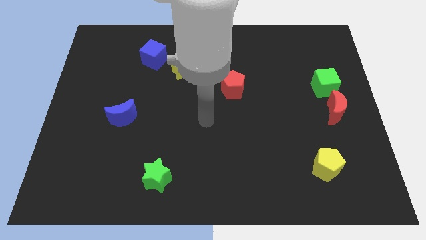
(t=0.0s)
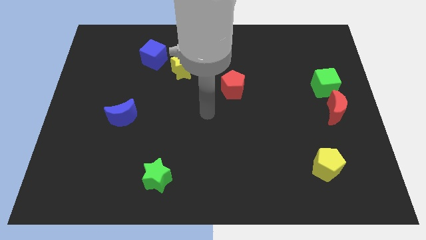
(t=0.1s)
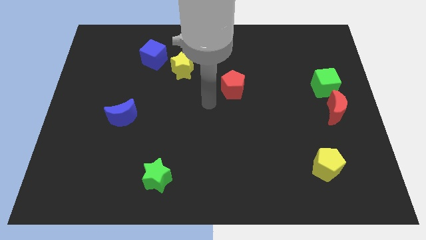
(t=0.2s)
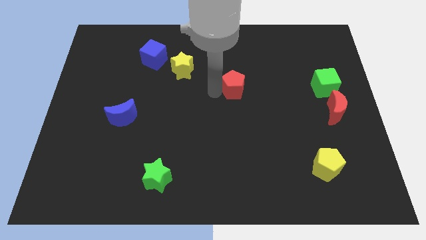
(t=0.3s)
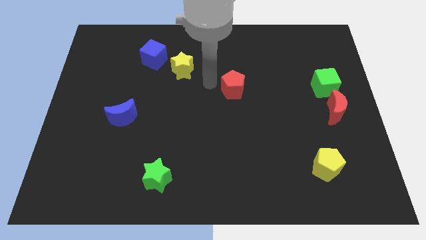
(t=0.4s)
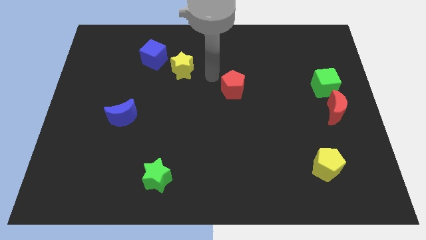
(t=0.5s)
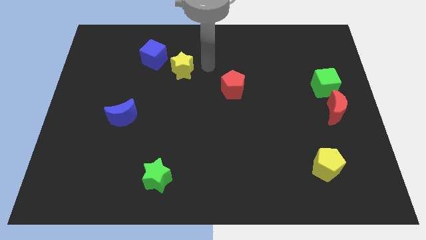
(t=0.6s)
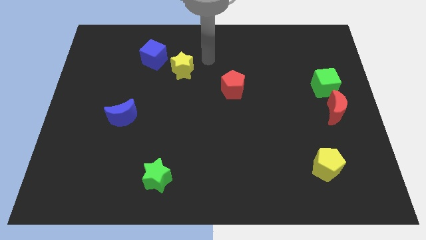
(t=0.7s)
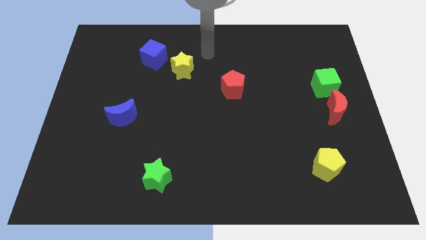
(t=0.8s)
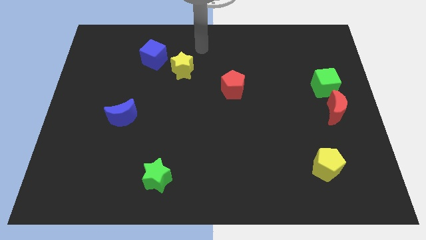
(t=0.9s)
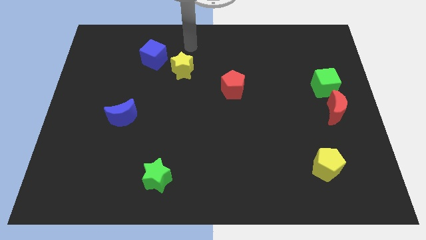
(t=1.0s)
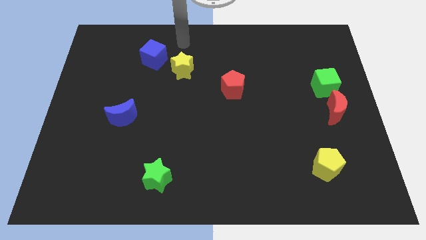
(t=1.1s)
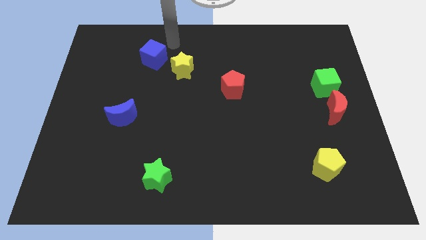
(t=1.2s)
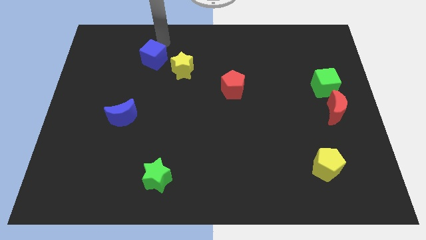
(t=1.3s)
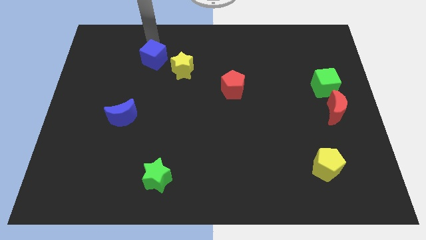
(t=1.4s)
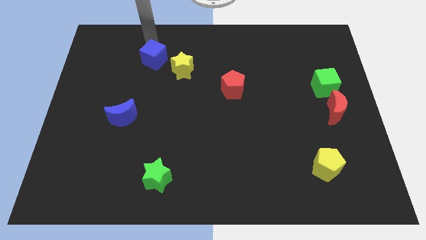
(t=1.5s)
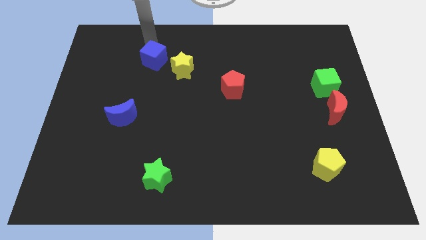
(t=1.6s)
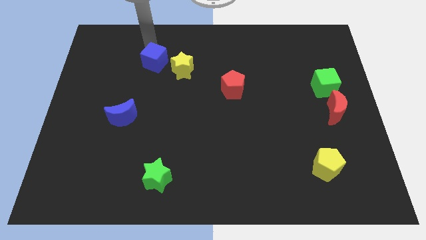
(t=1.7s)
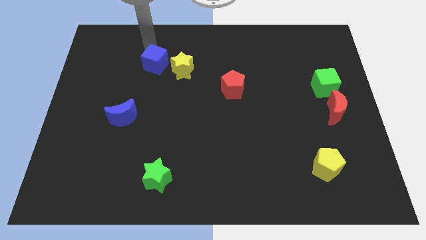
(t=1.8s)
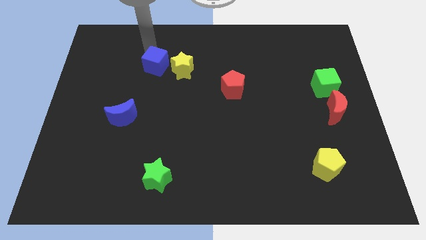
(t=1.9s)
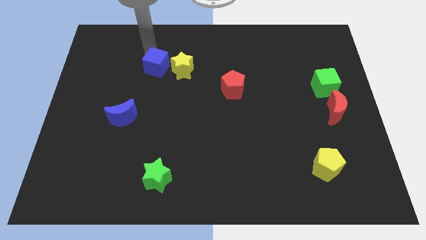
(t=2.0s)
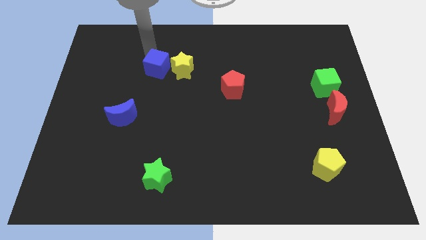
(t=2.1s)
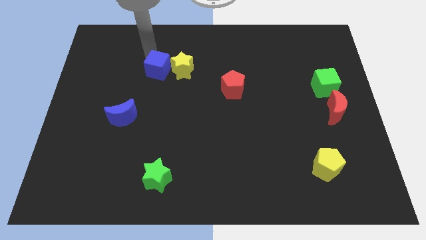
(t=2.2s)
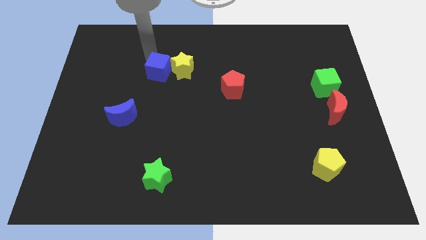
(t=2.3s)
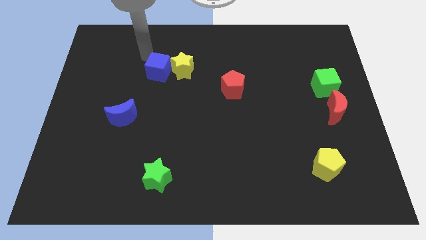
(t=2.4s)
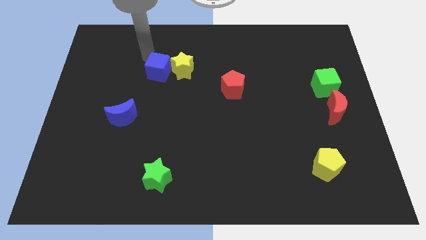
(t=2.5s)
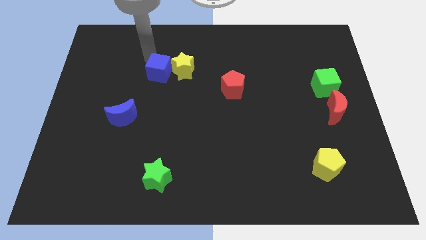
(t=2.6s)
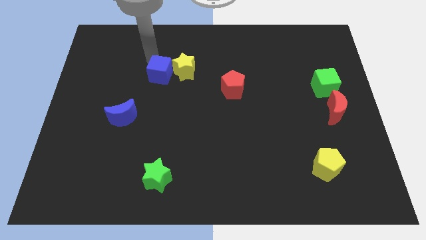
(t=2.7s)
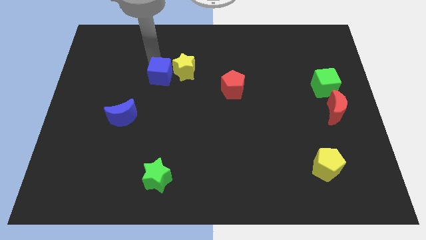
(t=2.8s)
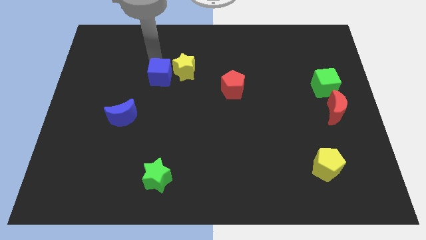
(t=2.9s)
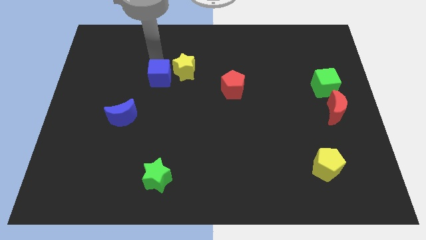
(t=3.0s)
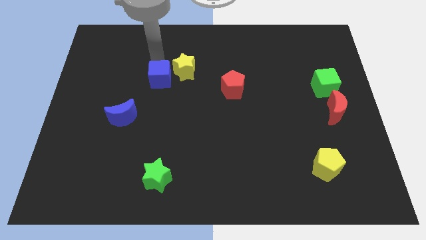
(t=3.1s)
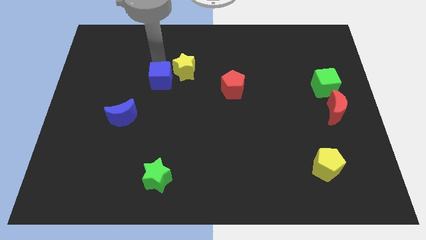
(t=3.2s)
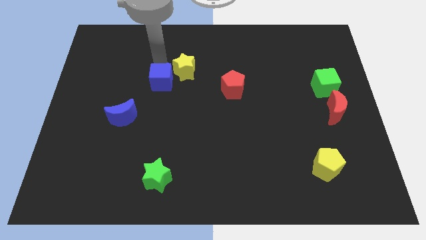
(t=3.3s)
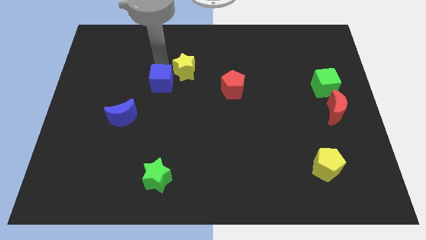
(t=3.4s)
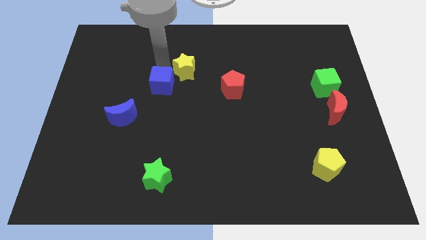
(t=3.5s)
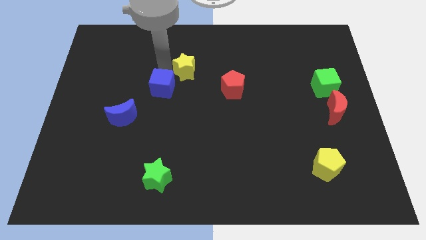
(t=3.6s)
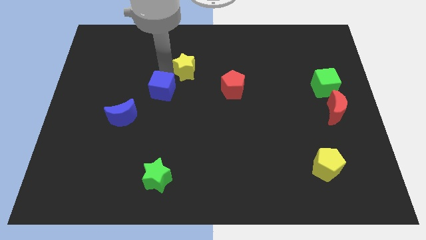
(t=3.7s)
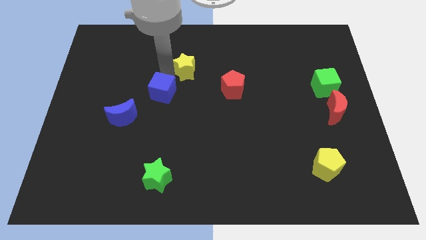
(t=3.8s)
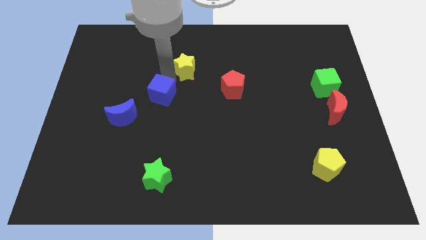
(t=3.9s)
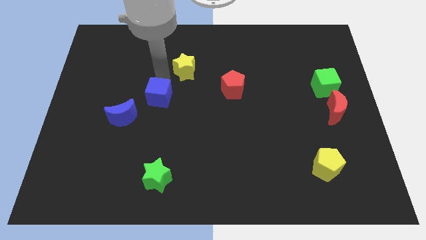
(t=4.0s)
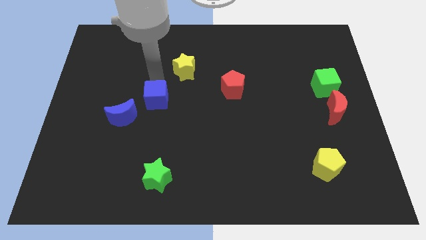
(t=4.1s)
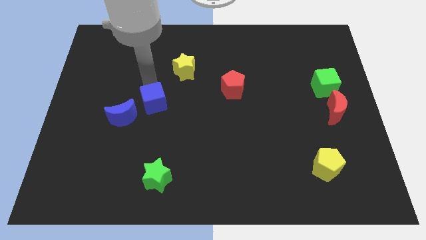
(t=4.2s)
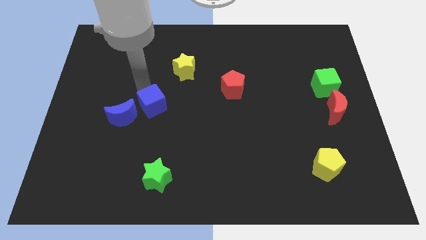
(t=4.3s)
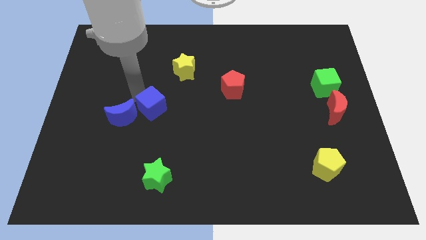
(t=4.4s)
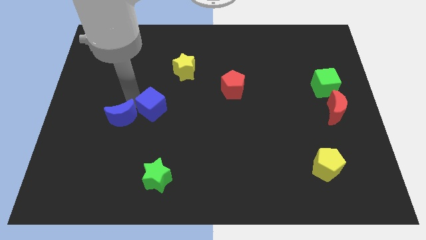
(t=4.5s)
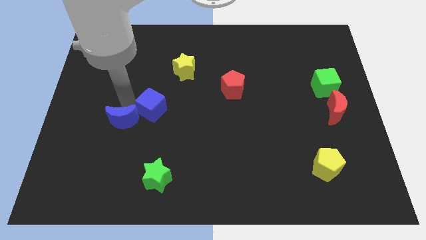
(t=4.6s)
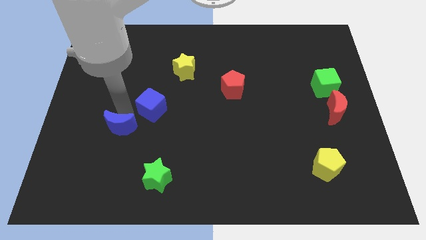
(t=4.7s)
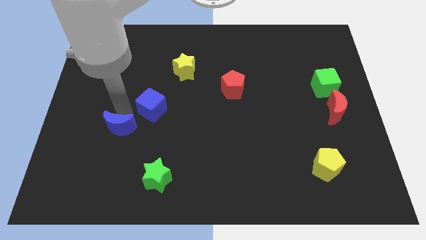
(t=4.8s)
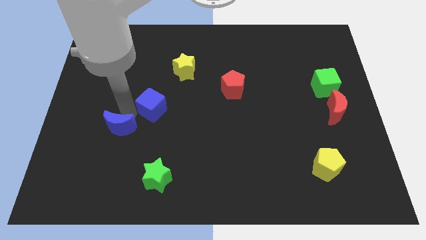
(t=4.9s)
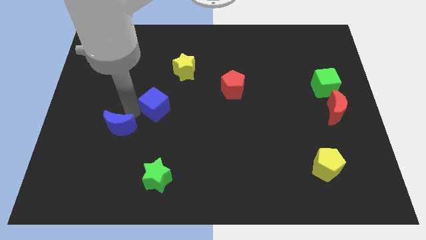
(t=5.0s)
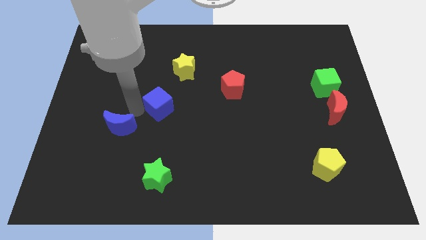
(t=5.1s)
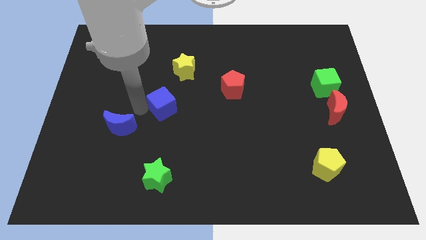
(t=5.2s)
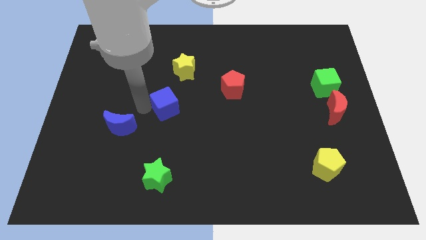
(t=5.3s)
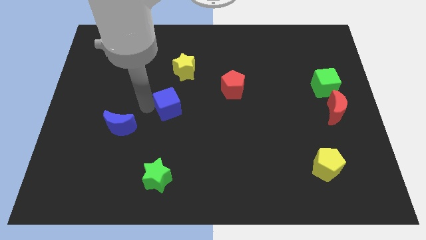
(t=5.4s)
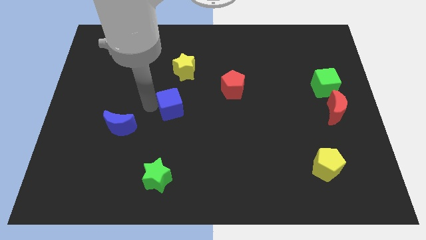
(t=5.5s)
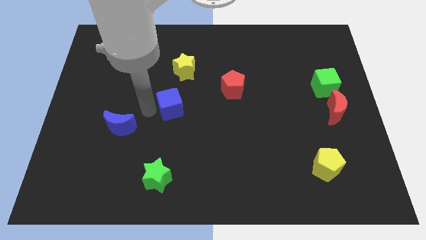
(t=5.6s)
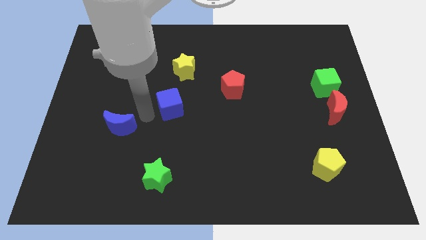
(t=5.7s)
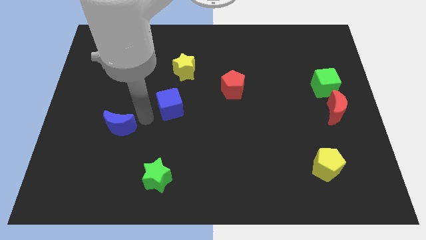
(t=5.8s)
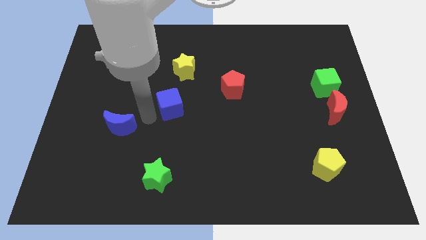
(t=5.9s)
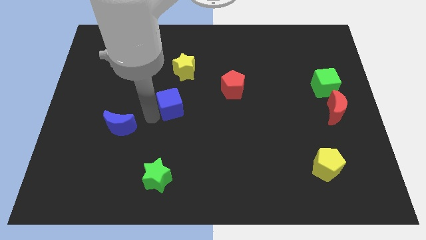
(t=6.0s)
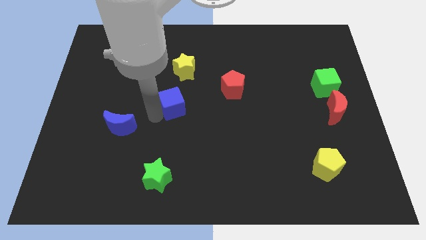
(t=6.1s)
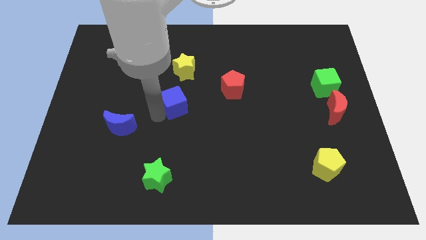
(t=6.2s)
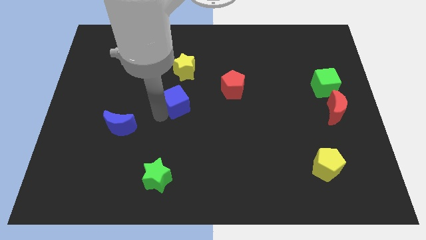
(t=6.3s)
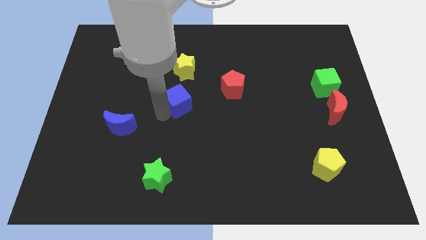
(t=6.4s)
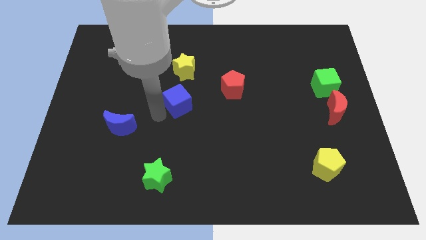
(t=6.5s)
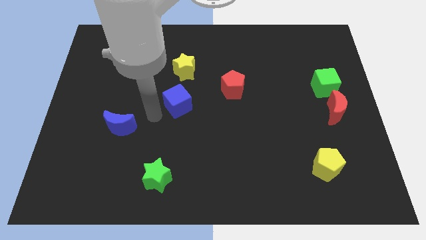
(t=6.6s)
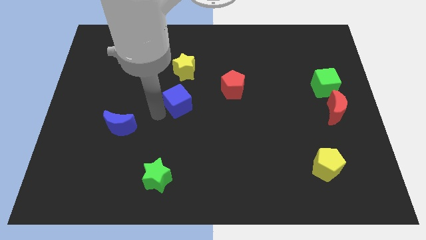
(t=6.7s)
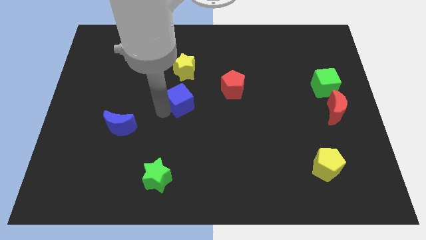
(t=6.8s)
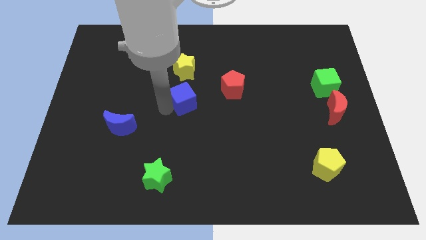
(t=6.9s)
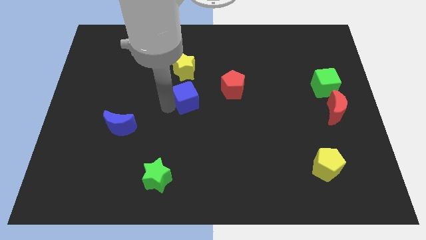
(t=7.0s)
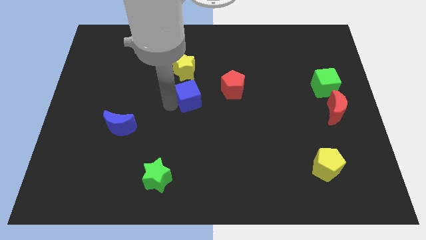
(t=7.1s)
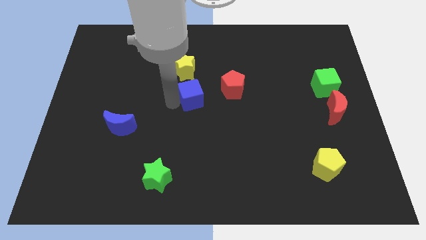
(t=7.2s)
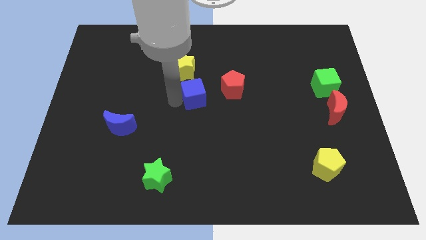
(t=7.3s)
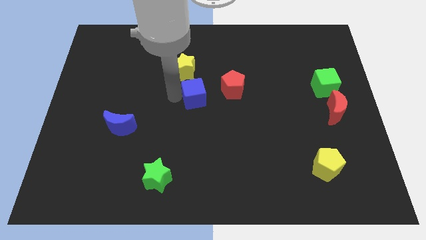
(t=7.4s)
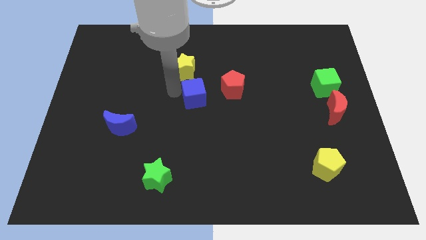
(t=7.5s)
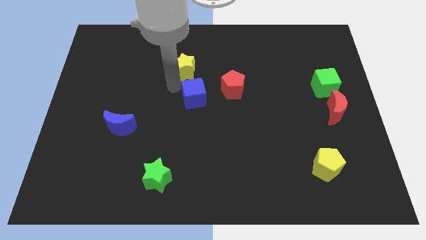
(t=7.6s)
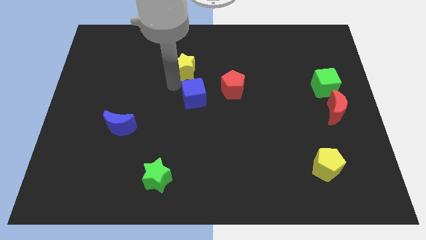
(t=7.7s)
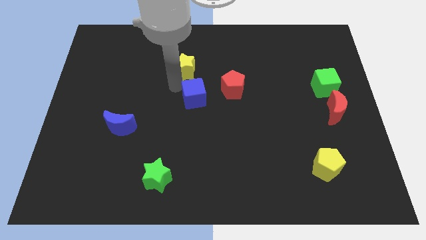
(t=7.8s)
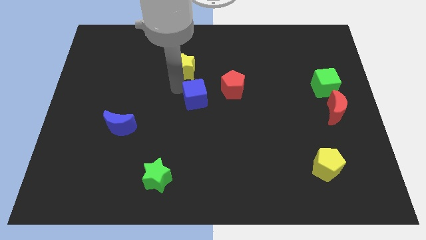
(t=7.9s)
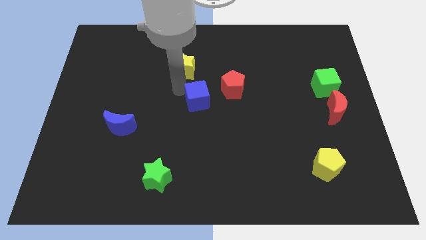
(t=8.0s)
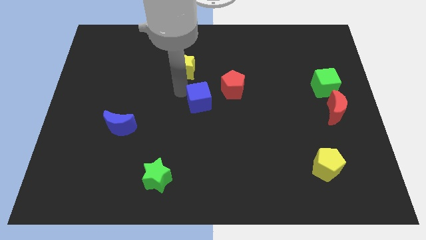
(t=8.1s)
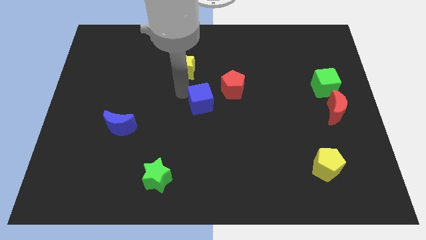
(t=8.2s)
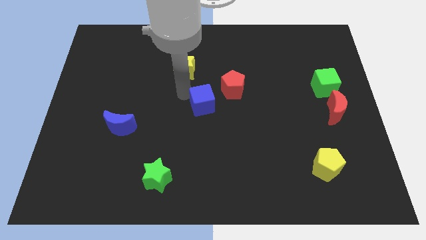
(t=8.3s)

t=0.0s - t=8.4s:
move the blue cube downwards and then right
